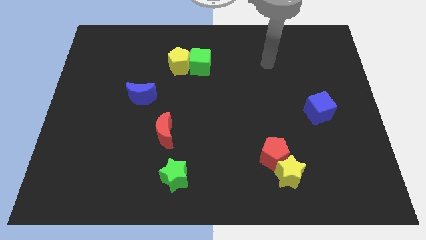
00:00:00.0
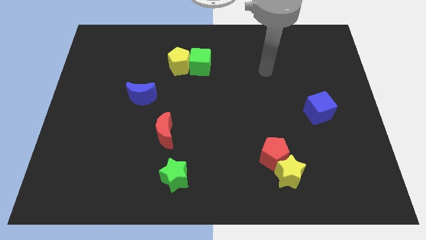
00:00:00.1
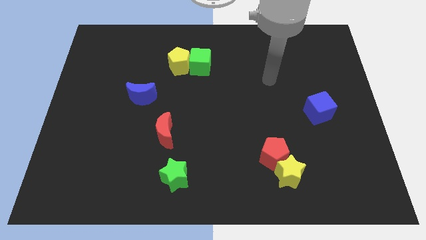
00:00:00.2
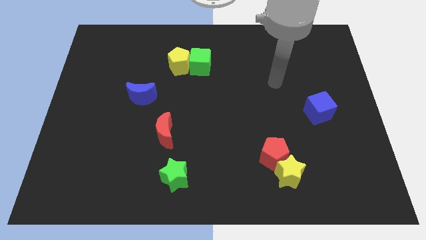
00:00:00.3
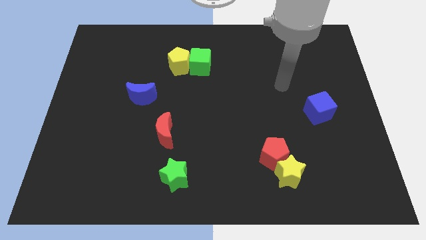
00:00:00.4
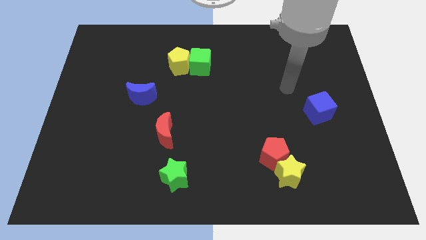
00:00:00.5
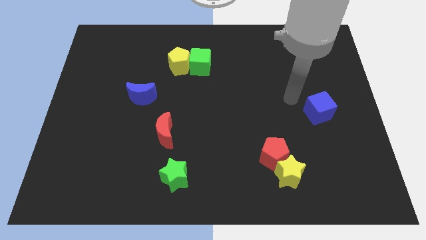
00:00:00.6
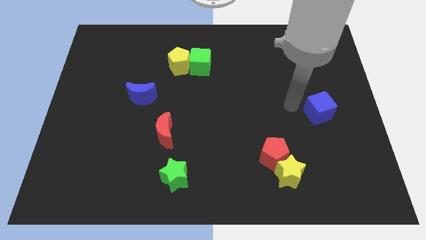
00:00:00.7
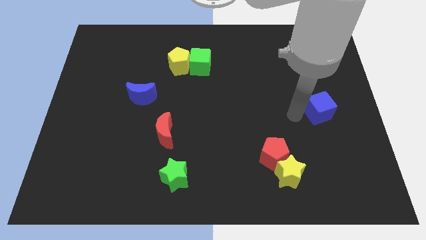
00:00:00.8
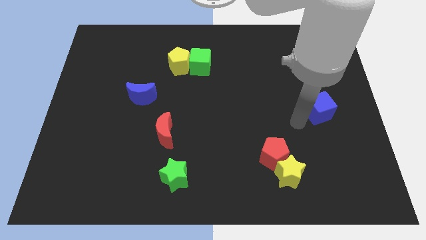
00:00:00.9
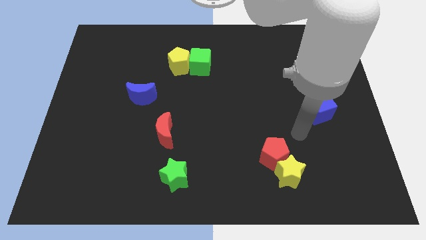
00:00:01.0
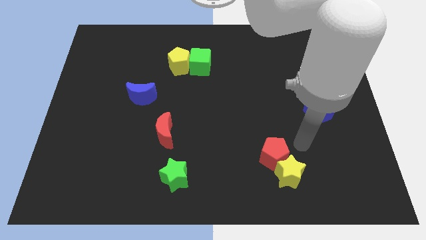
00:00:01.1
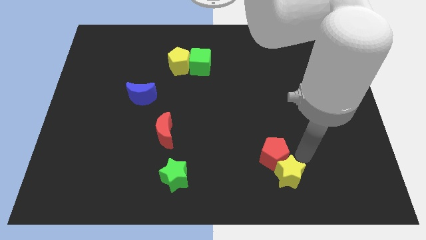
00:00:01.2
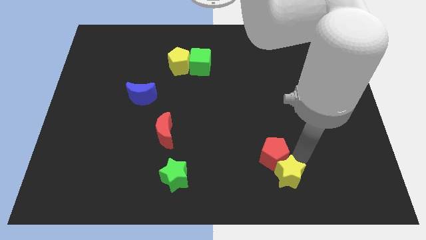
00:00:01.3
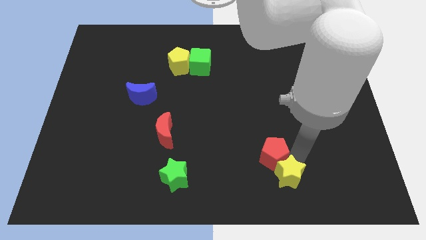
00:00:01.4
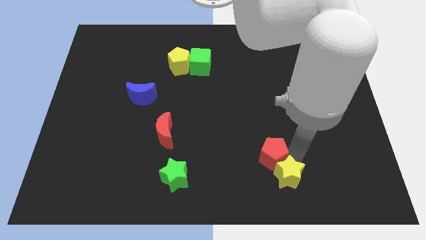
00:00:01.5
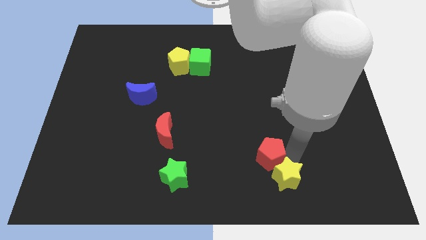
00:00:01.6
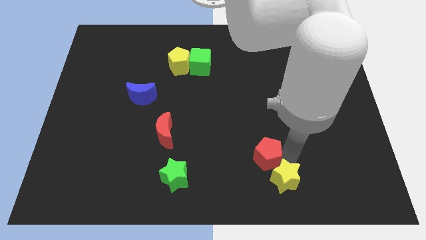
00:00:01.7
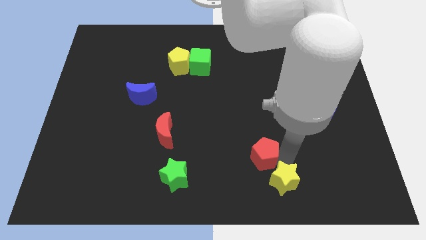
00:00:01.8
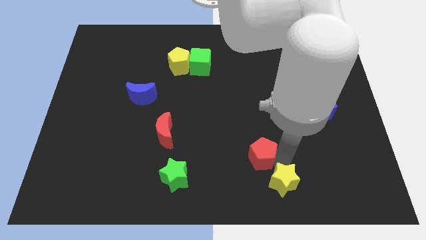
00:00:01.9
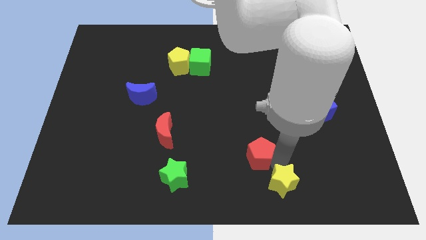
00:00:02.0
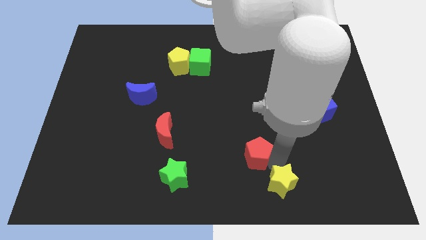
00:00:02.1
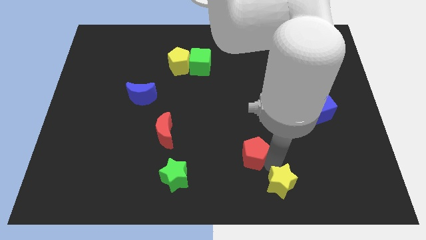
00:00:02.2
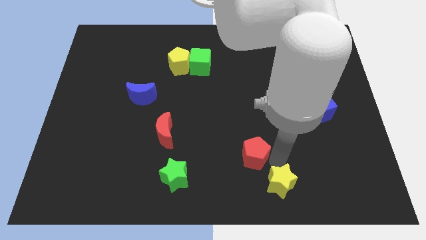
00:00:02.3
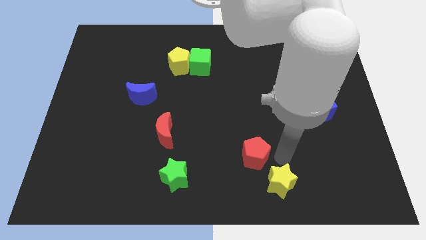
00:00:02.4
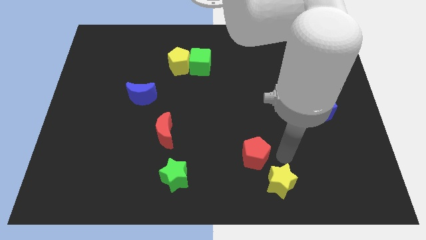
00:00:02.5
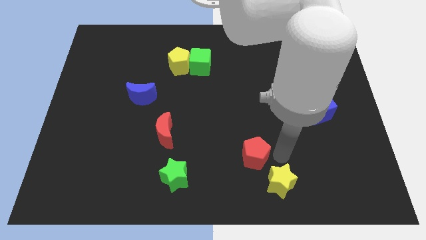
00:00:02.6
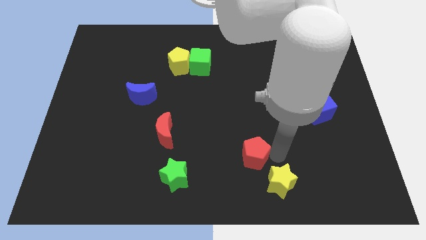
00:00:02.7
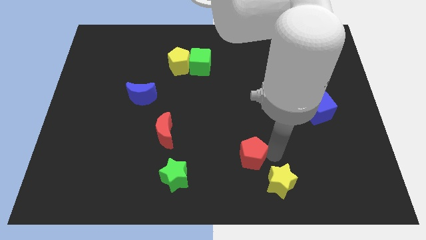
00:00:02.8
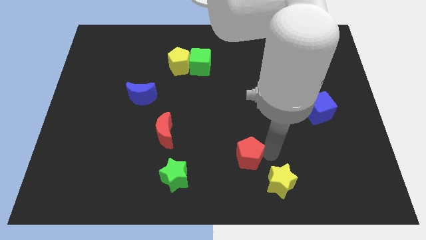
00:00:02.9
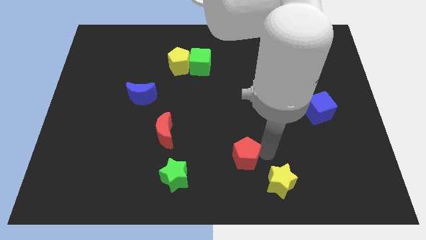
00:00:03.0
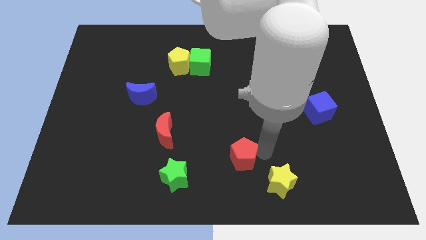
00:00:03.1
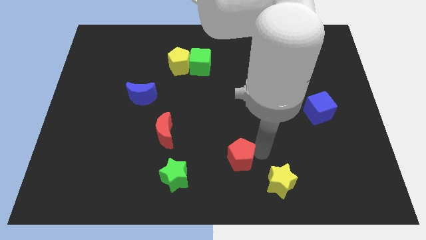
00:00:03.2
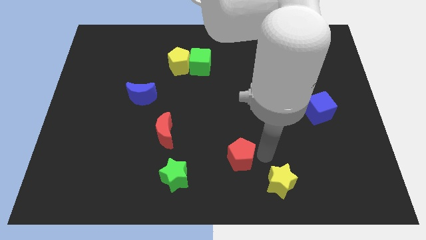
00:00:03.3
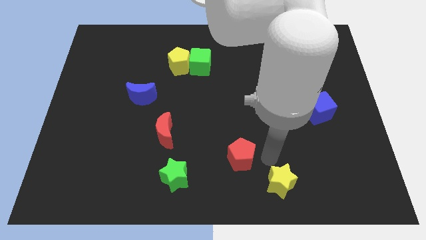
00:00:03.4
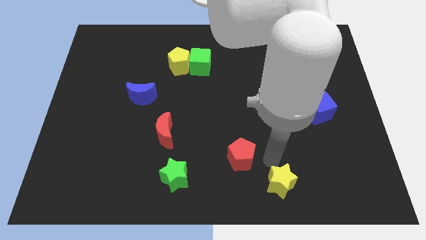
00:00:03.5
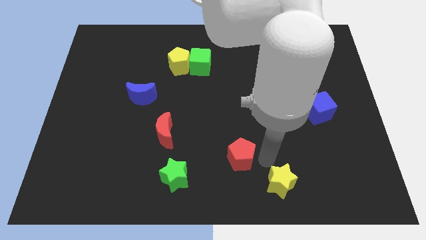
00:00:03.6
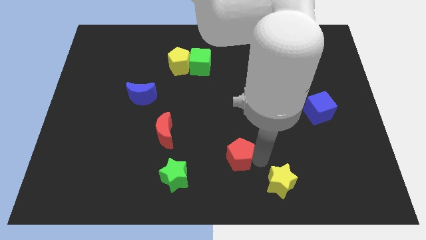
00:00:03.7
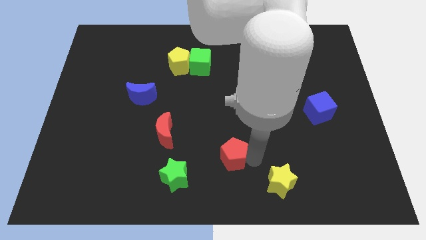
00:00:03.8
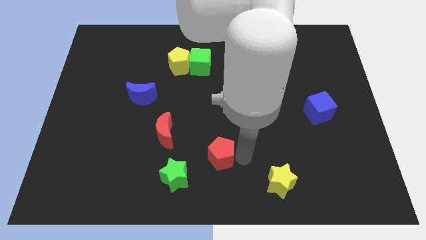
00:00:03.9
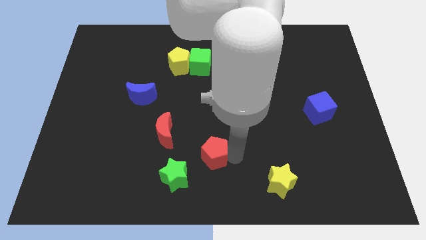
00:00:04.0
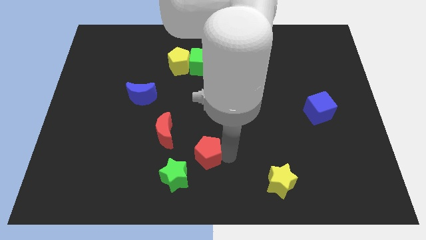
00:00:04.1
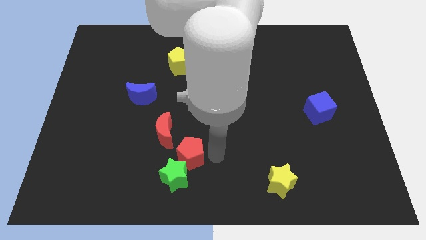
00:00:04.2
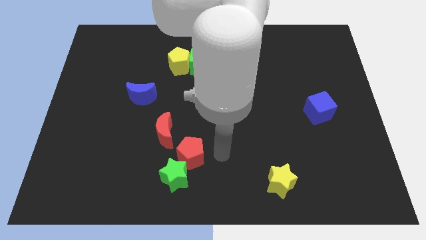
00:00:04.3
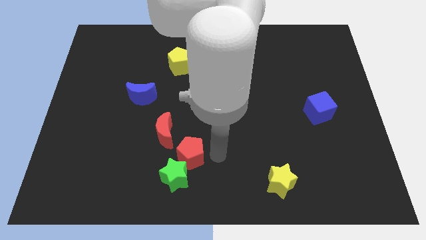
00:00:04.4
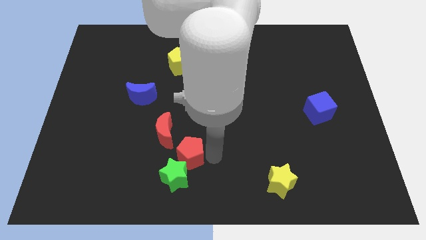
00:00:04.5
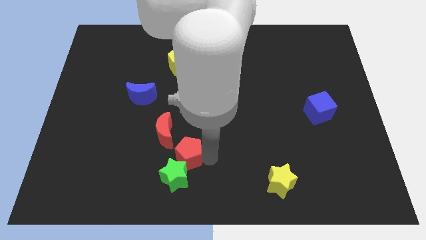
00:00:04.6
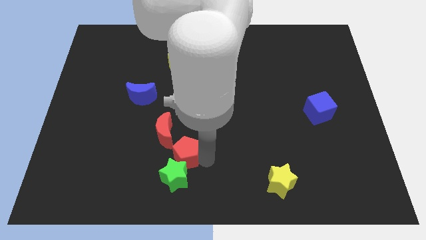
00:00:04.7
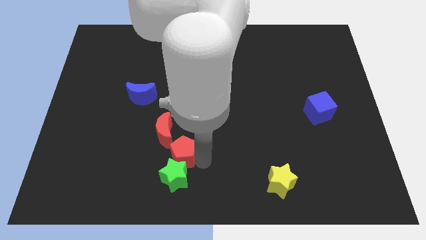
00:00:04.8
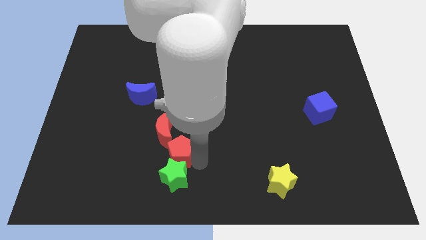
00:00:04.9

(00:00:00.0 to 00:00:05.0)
move the red pentagon left

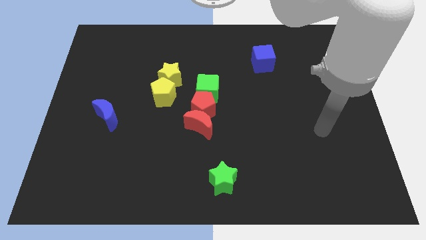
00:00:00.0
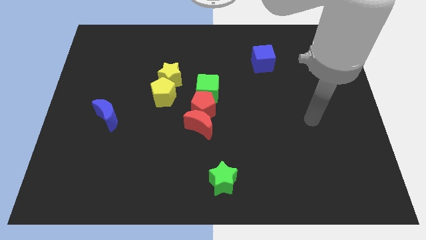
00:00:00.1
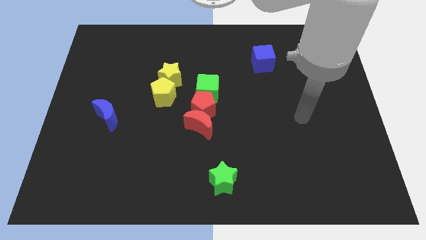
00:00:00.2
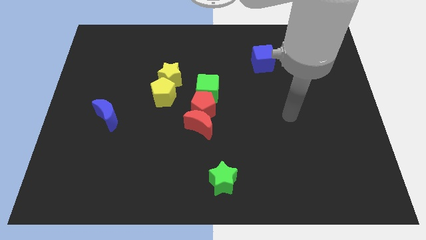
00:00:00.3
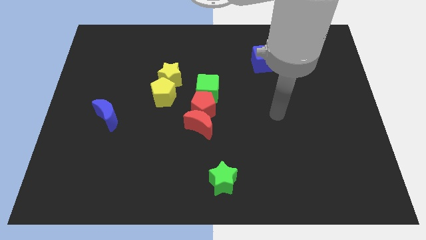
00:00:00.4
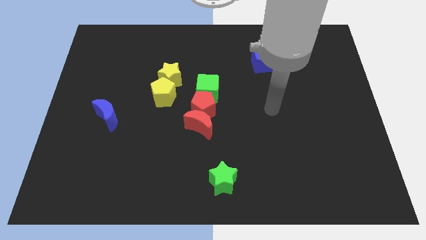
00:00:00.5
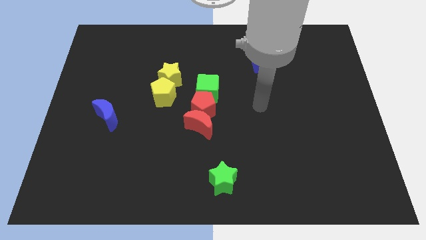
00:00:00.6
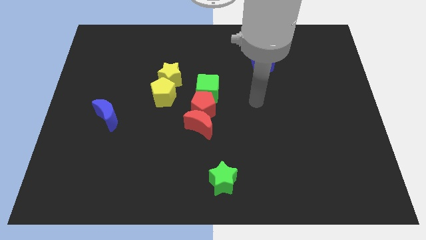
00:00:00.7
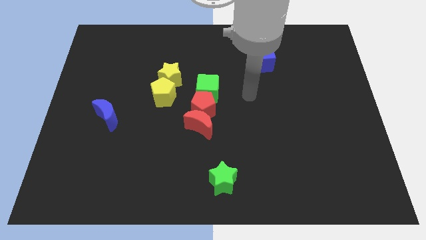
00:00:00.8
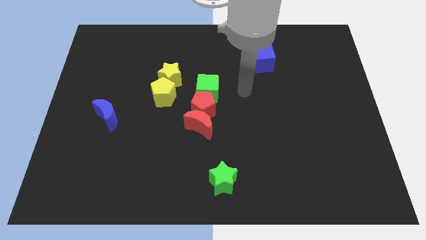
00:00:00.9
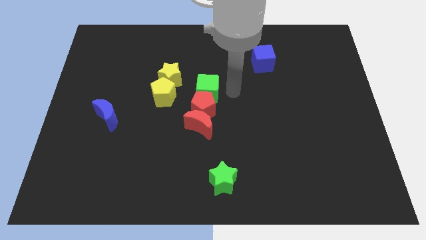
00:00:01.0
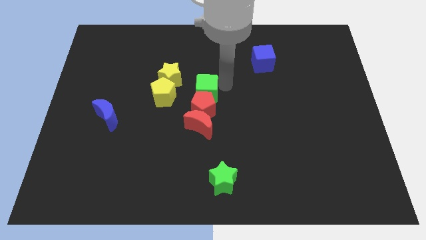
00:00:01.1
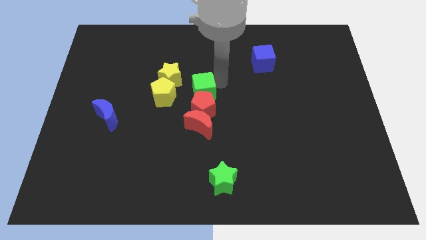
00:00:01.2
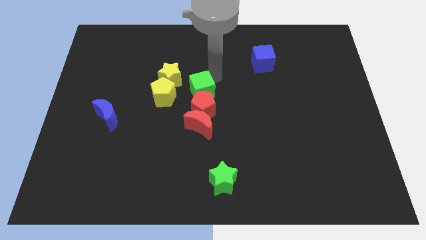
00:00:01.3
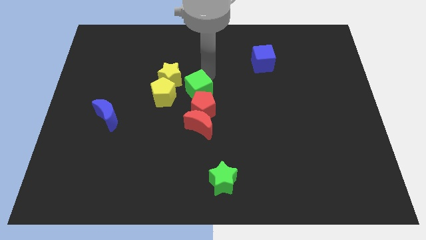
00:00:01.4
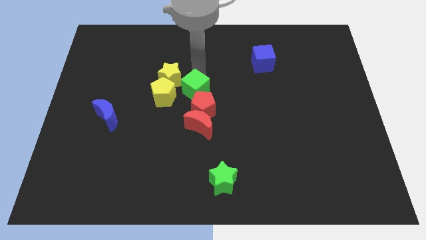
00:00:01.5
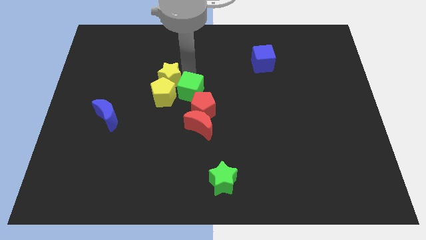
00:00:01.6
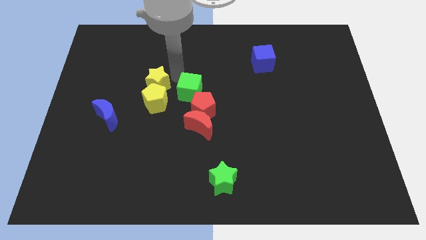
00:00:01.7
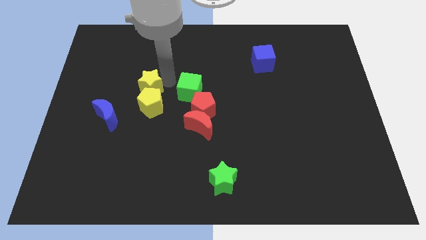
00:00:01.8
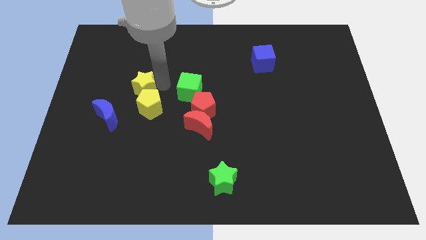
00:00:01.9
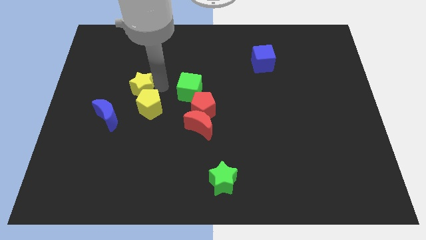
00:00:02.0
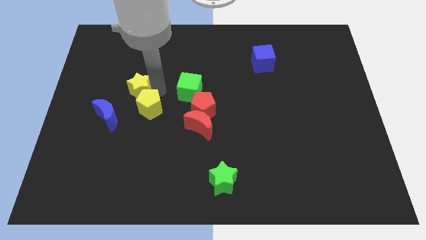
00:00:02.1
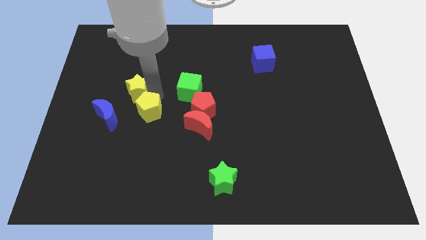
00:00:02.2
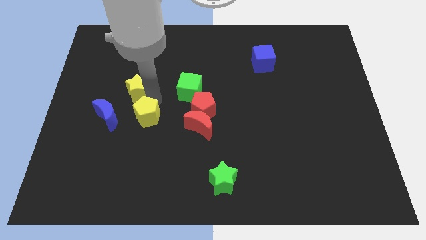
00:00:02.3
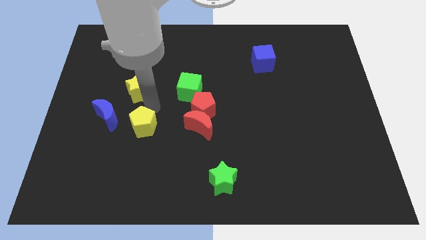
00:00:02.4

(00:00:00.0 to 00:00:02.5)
push the yellow pentagon down and left diagonally a little

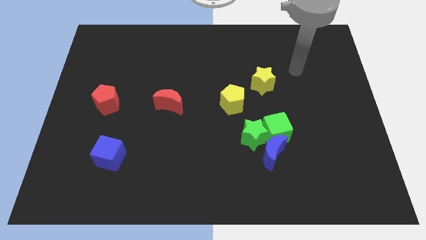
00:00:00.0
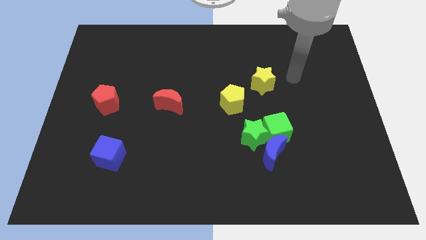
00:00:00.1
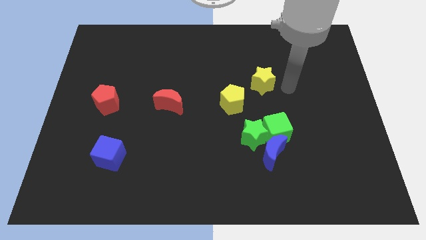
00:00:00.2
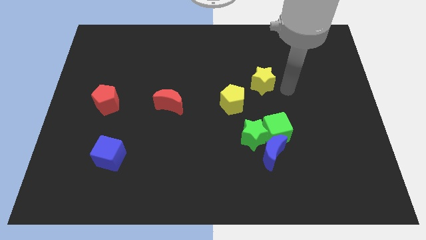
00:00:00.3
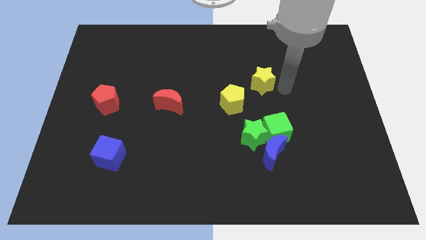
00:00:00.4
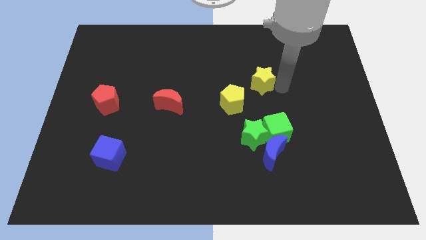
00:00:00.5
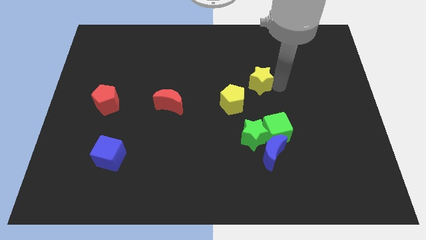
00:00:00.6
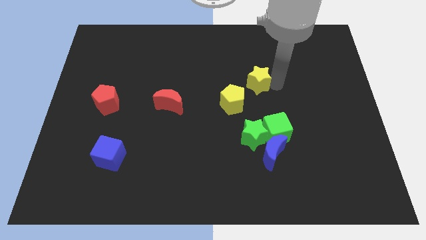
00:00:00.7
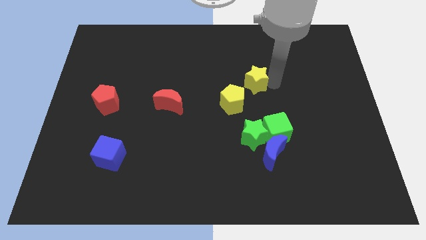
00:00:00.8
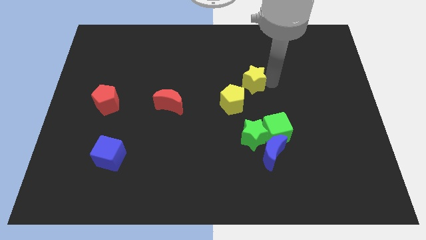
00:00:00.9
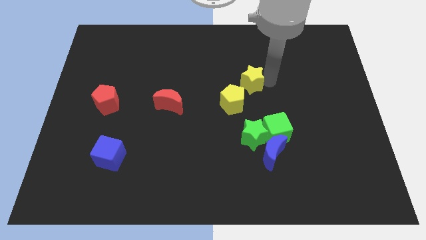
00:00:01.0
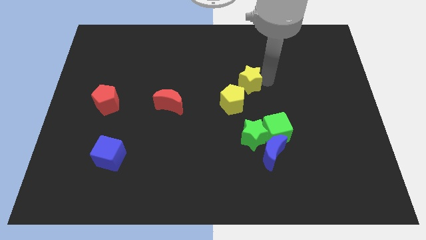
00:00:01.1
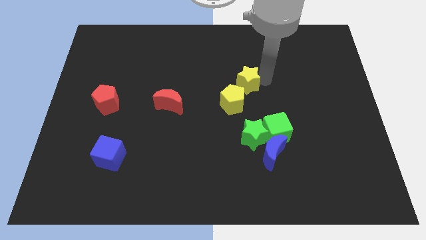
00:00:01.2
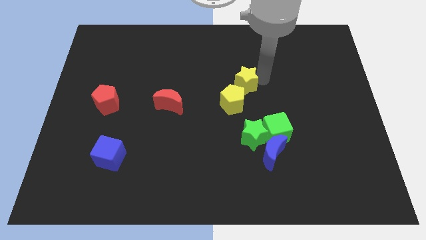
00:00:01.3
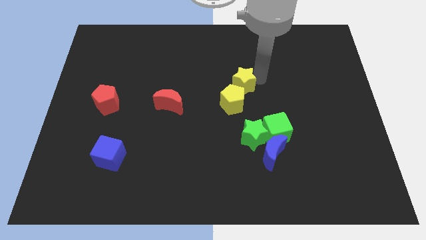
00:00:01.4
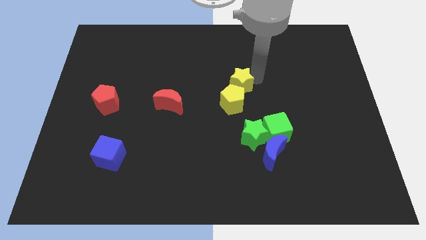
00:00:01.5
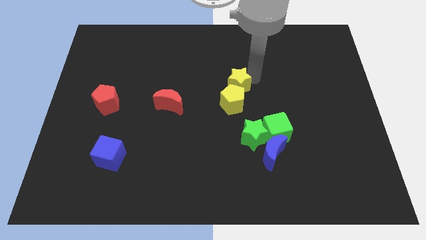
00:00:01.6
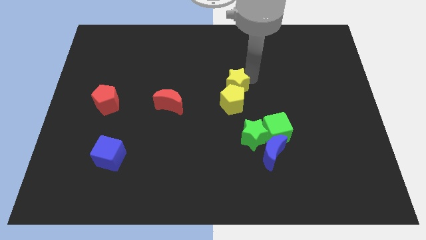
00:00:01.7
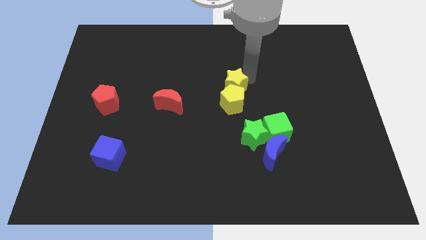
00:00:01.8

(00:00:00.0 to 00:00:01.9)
move the yellow star a bit left
